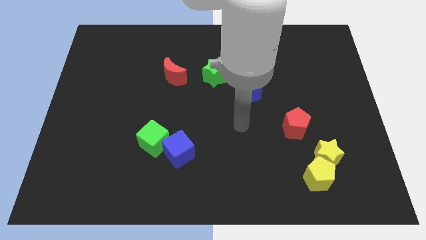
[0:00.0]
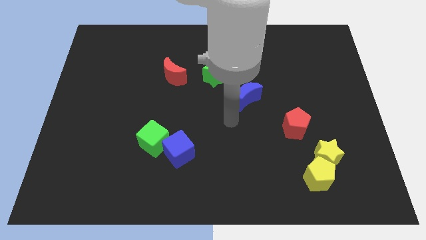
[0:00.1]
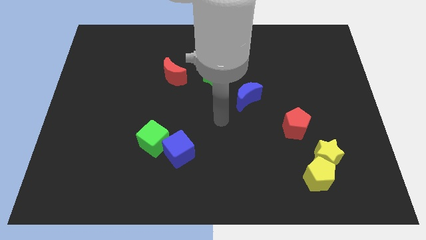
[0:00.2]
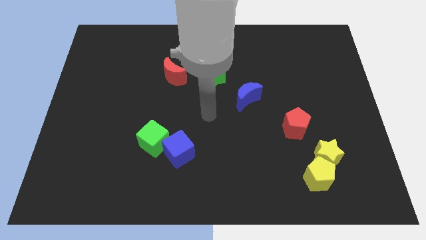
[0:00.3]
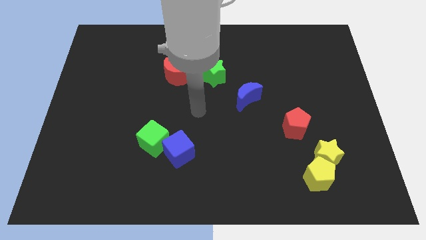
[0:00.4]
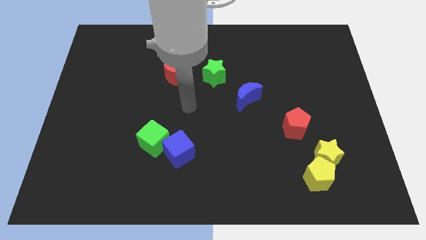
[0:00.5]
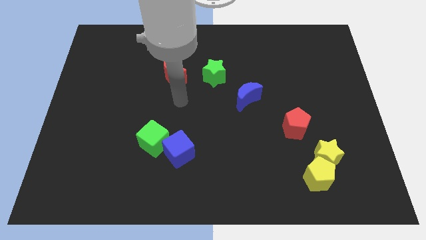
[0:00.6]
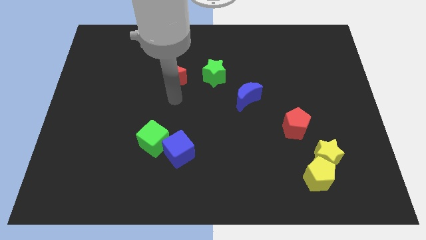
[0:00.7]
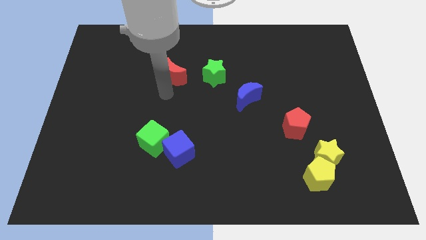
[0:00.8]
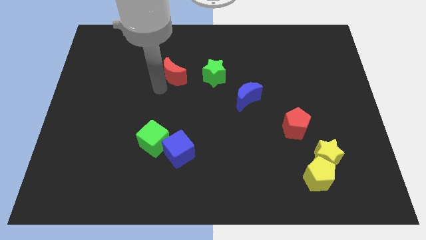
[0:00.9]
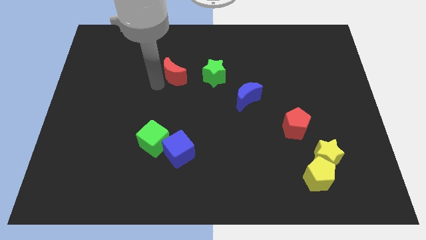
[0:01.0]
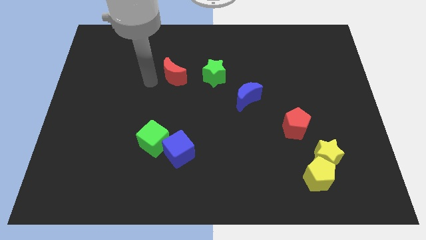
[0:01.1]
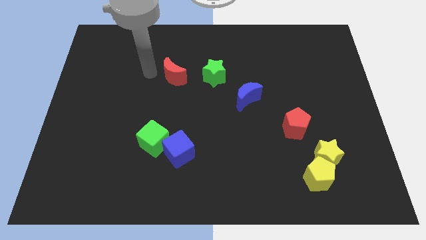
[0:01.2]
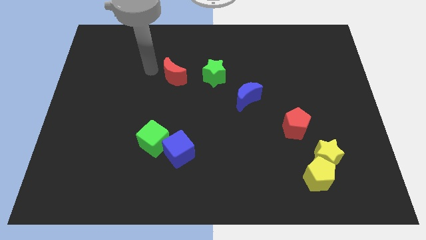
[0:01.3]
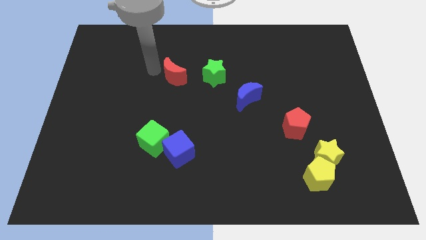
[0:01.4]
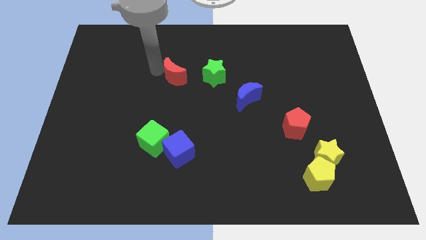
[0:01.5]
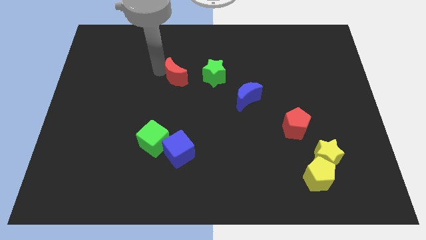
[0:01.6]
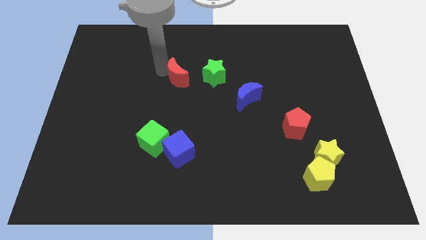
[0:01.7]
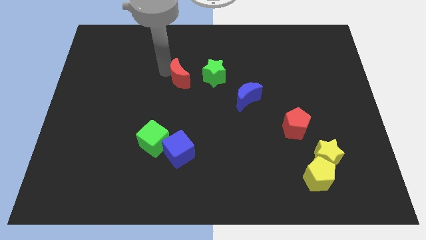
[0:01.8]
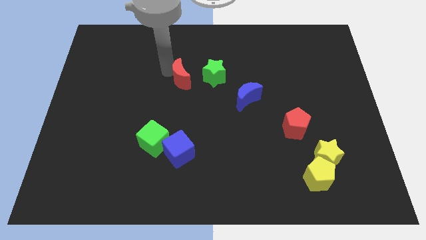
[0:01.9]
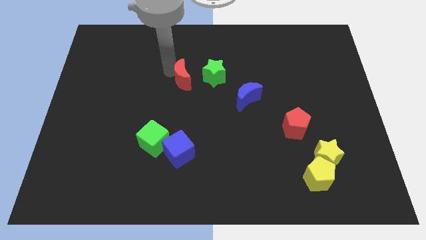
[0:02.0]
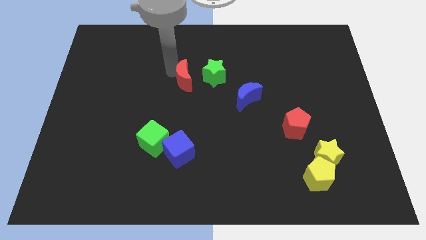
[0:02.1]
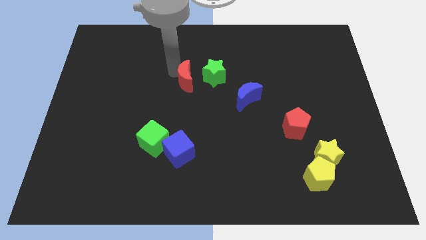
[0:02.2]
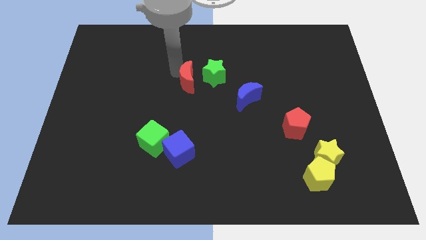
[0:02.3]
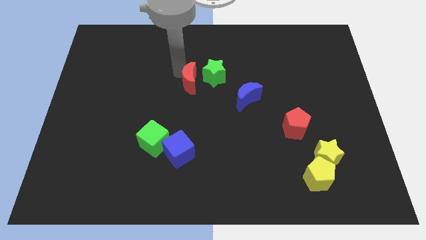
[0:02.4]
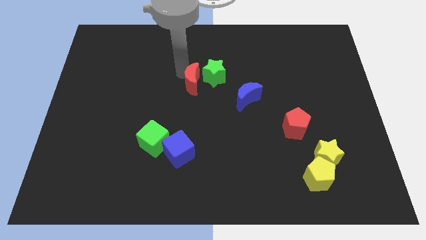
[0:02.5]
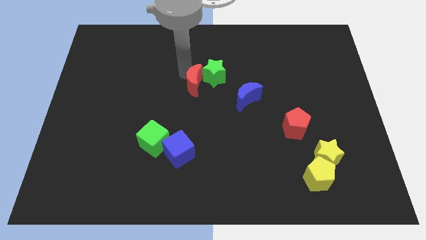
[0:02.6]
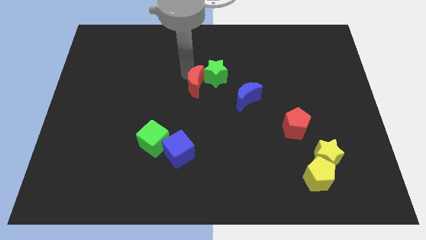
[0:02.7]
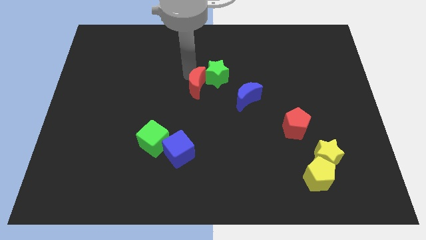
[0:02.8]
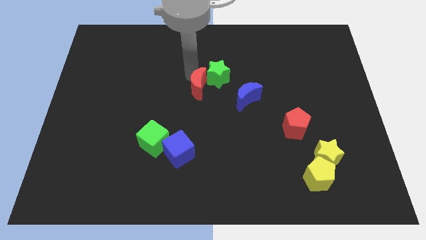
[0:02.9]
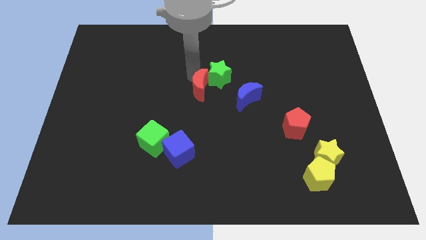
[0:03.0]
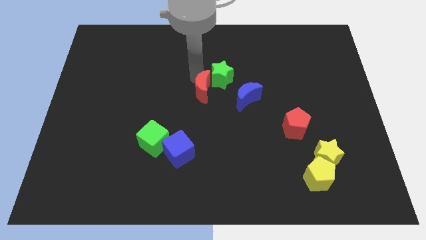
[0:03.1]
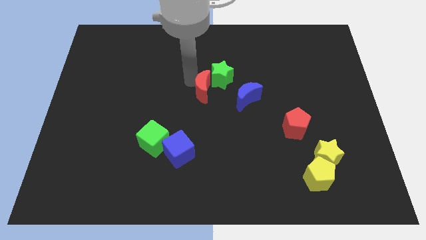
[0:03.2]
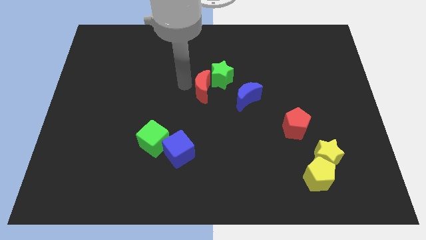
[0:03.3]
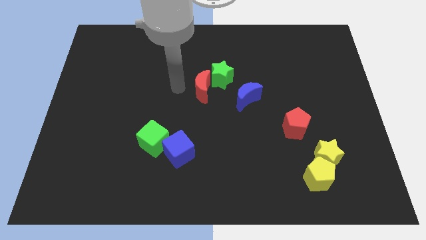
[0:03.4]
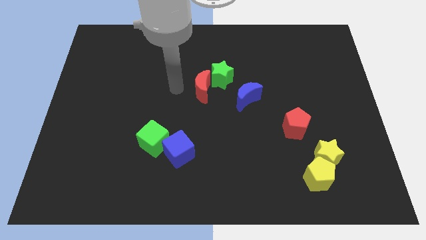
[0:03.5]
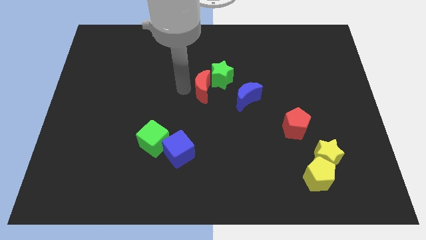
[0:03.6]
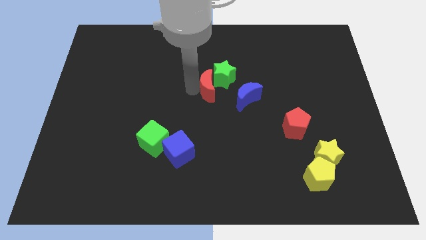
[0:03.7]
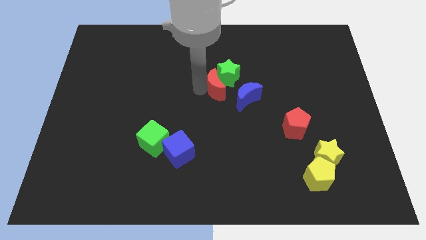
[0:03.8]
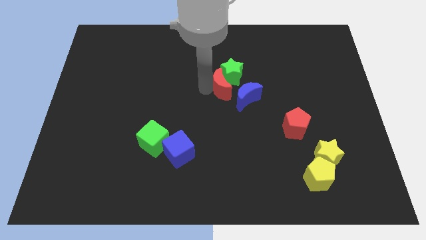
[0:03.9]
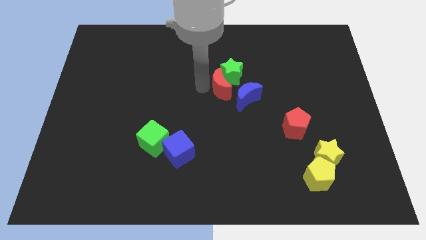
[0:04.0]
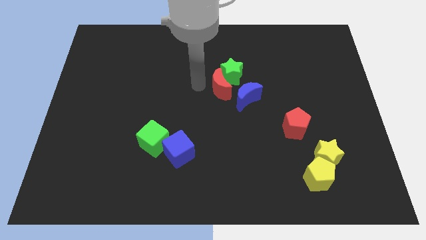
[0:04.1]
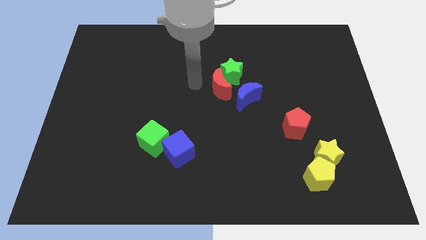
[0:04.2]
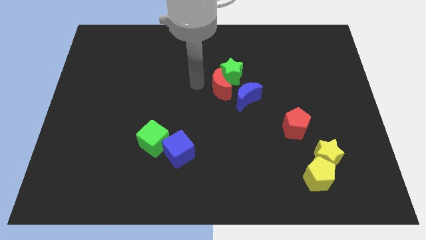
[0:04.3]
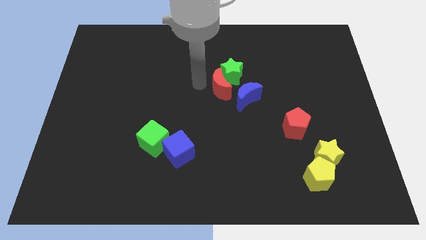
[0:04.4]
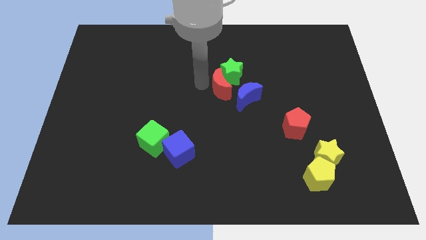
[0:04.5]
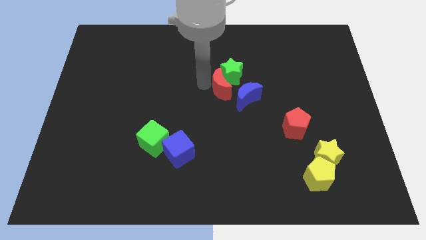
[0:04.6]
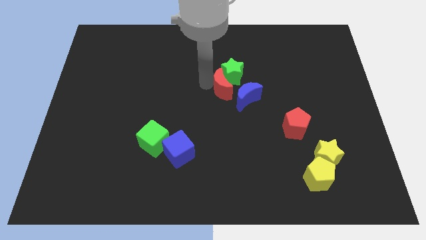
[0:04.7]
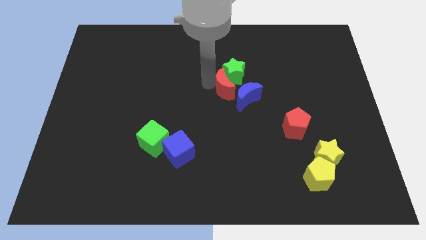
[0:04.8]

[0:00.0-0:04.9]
push the red moon next to the blue moon

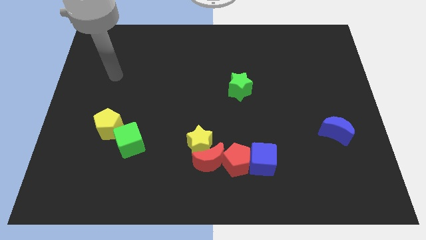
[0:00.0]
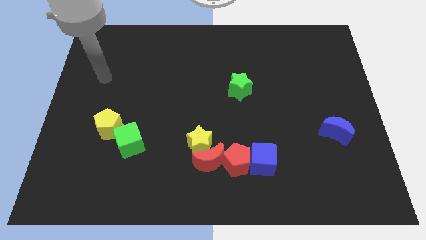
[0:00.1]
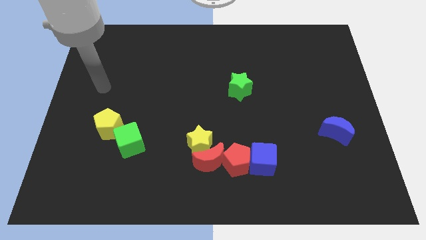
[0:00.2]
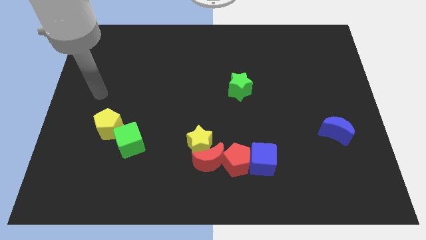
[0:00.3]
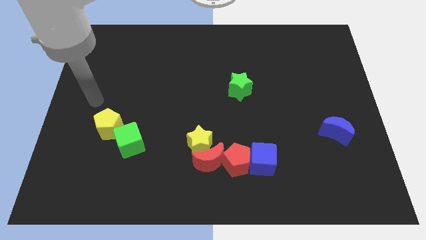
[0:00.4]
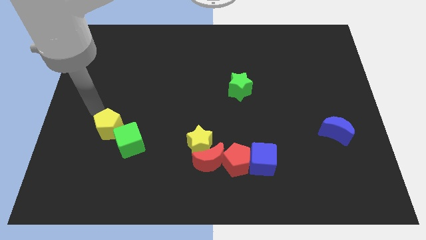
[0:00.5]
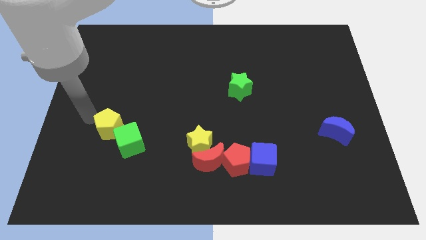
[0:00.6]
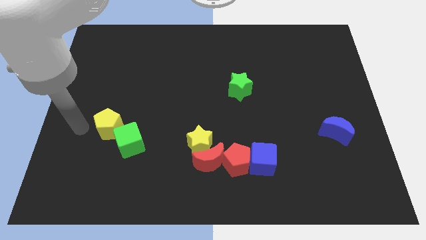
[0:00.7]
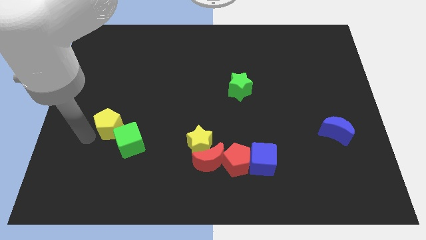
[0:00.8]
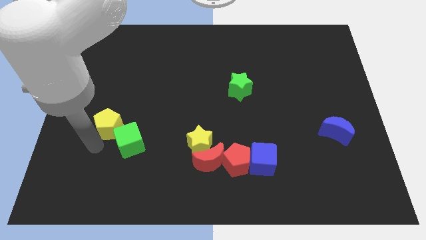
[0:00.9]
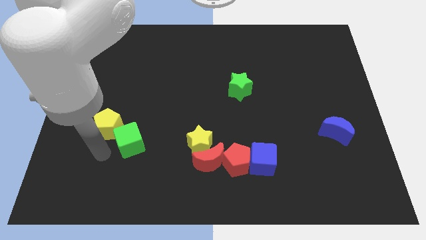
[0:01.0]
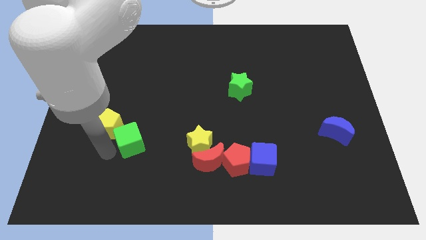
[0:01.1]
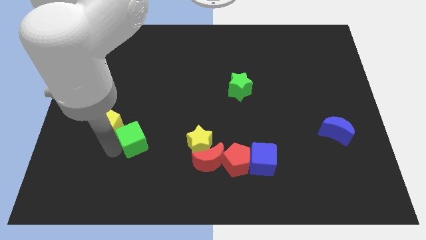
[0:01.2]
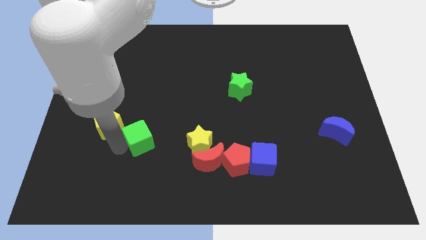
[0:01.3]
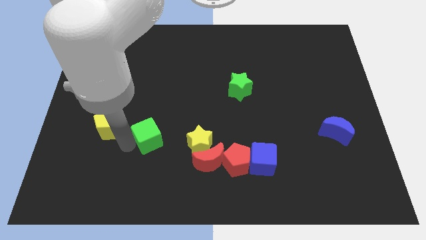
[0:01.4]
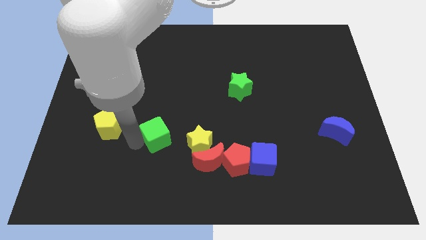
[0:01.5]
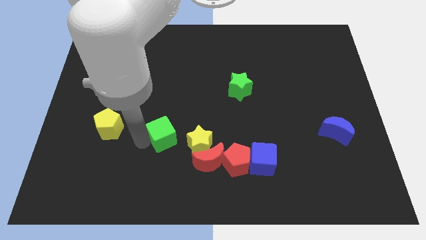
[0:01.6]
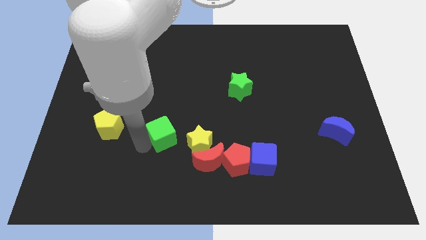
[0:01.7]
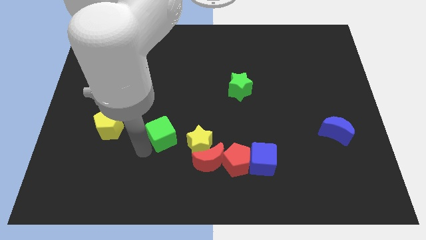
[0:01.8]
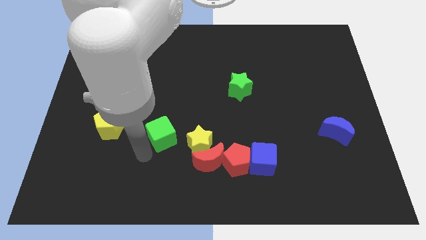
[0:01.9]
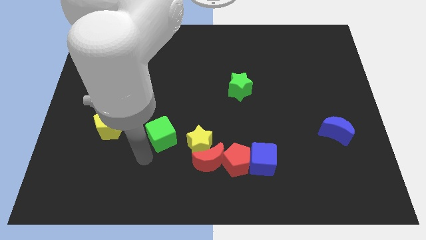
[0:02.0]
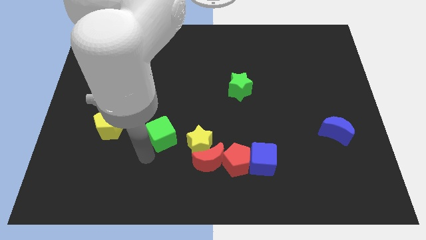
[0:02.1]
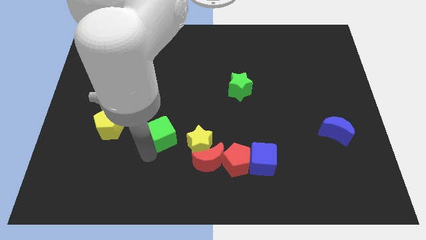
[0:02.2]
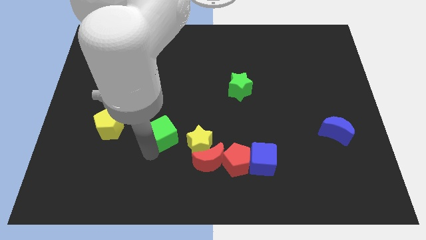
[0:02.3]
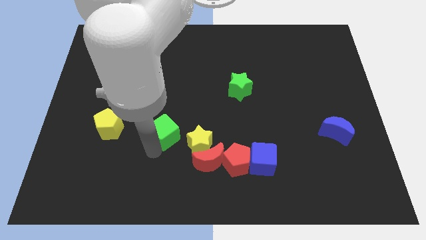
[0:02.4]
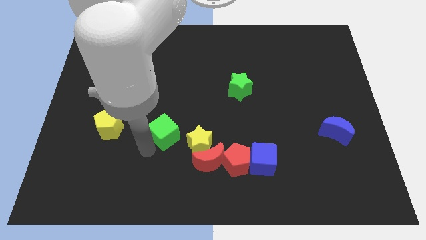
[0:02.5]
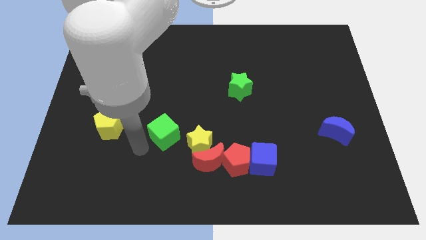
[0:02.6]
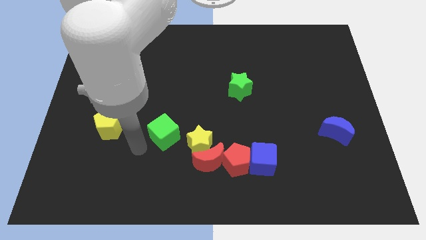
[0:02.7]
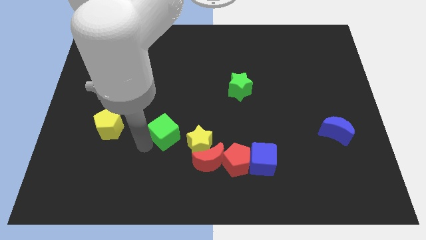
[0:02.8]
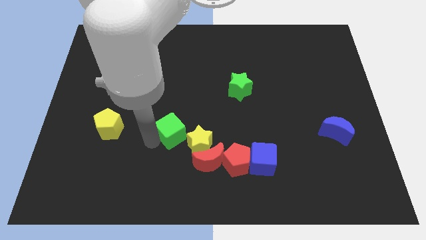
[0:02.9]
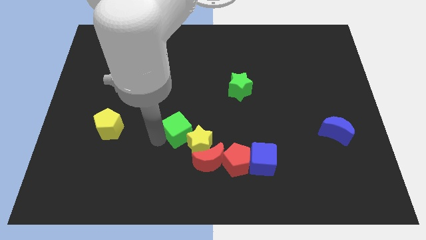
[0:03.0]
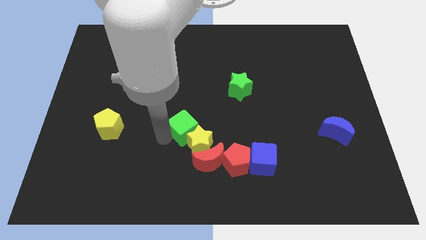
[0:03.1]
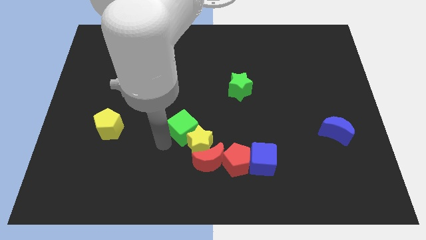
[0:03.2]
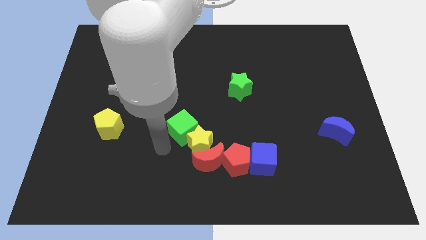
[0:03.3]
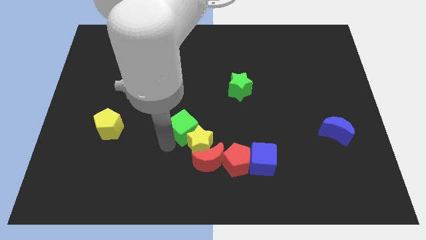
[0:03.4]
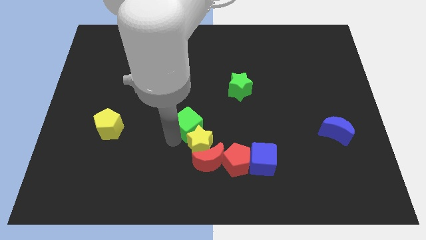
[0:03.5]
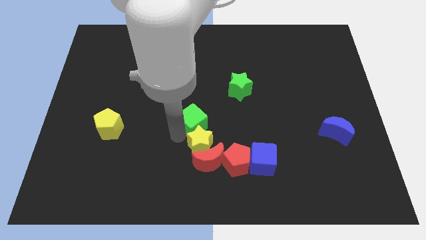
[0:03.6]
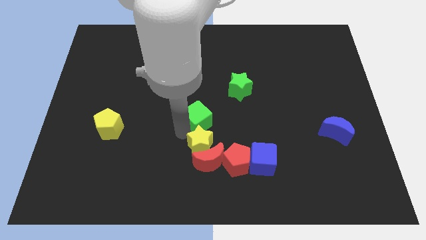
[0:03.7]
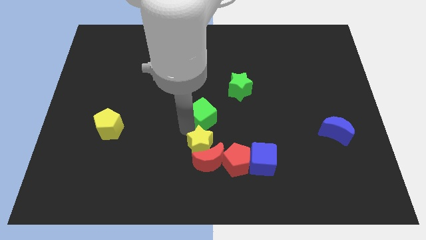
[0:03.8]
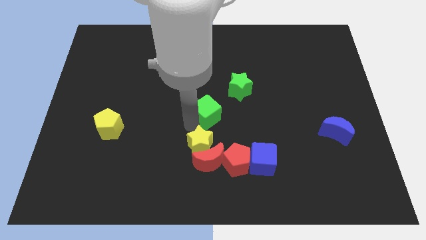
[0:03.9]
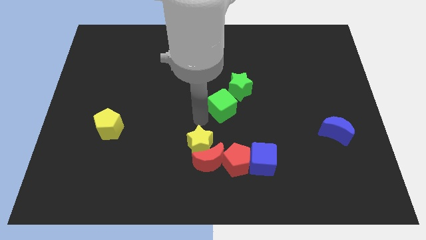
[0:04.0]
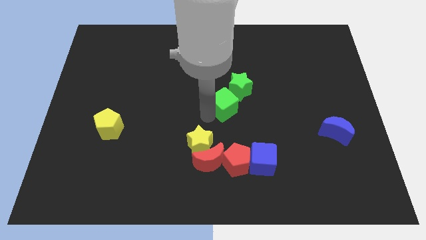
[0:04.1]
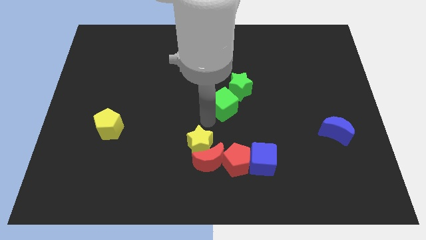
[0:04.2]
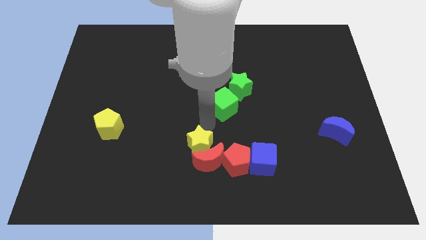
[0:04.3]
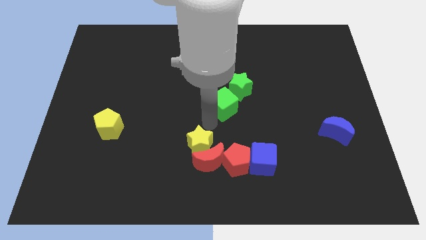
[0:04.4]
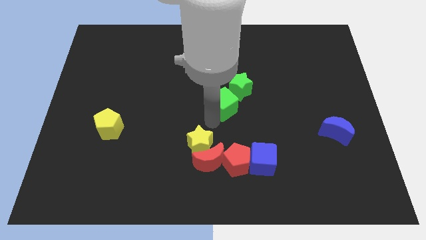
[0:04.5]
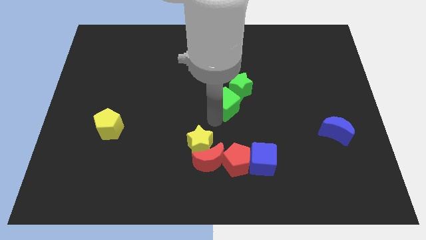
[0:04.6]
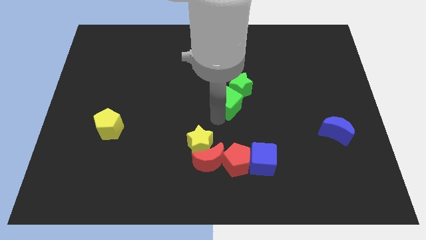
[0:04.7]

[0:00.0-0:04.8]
slide the green cube next to the green star
